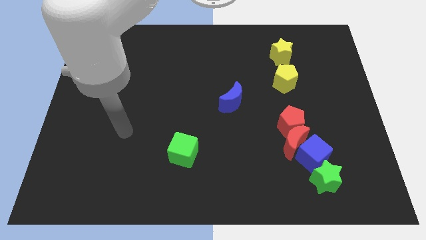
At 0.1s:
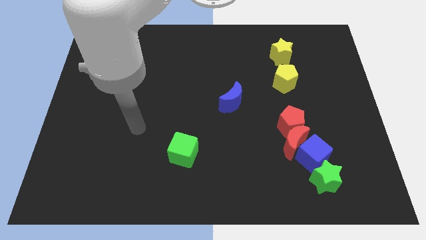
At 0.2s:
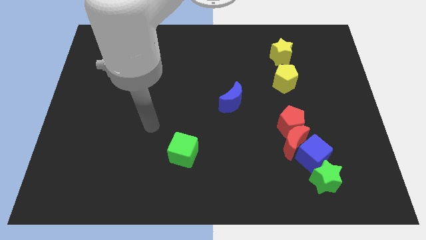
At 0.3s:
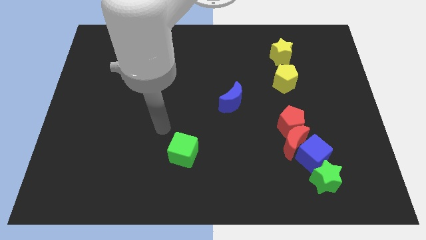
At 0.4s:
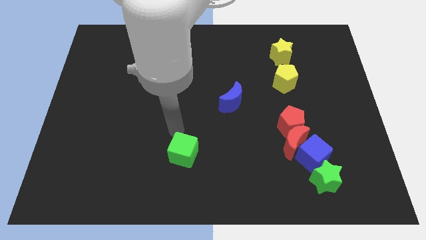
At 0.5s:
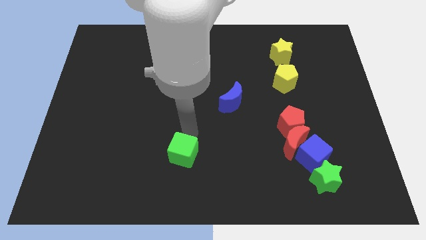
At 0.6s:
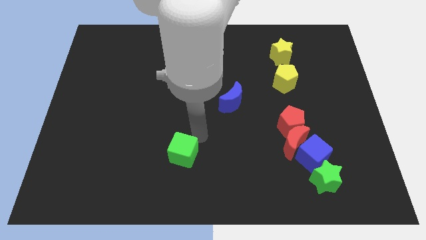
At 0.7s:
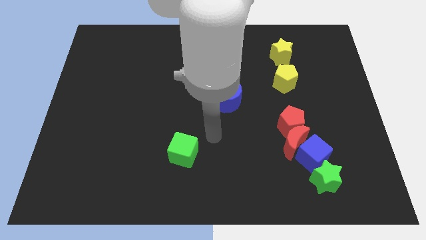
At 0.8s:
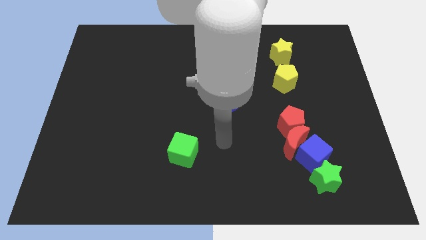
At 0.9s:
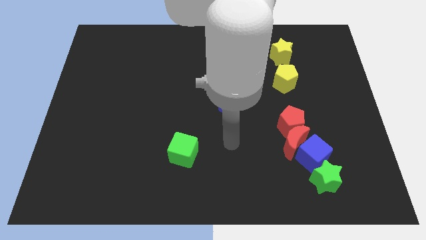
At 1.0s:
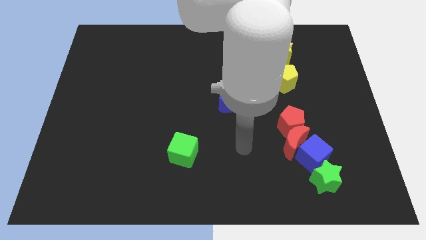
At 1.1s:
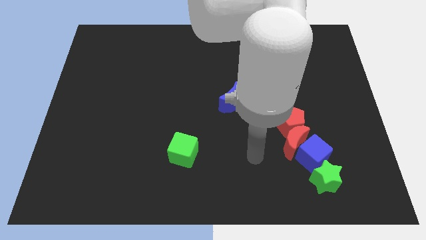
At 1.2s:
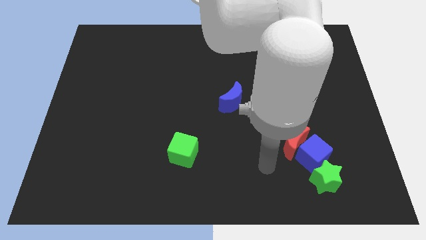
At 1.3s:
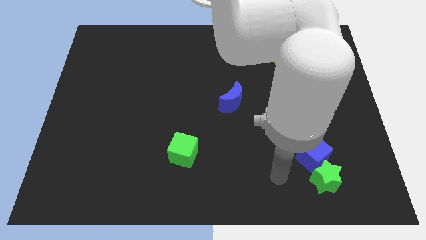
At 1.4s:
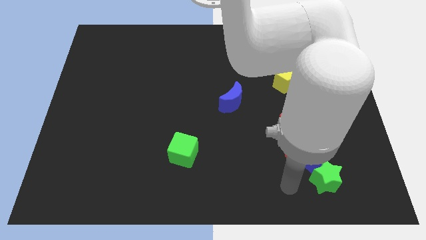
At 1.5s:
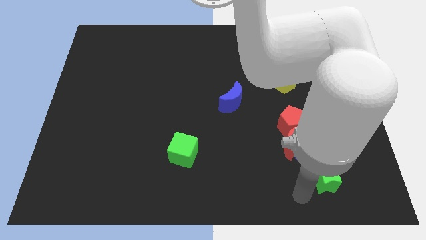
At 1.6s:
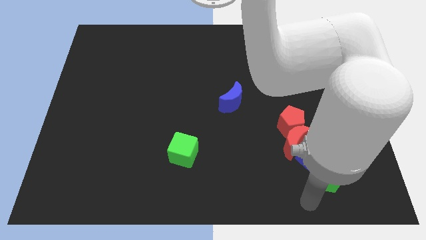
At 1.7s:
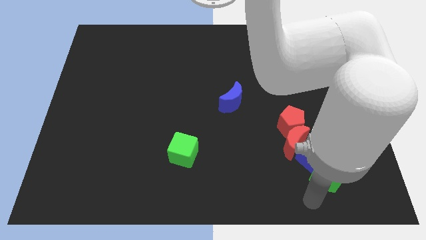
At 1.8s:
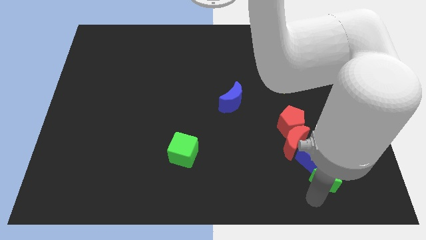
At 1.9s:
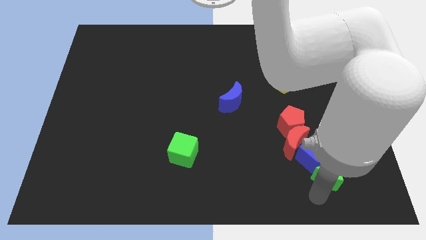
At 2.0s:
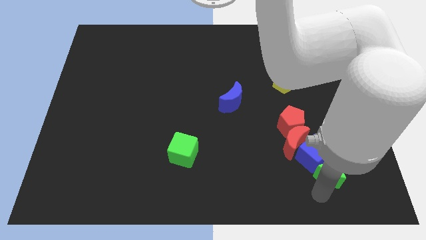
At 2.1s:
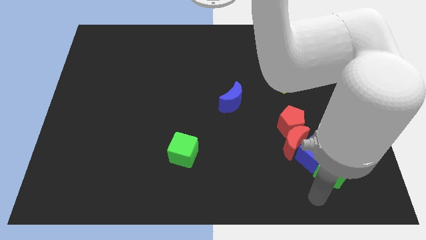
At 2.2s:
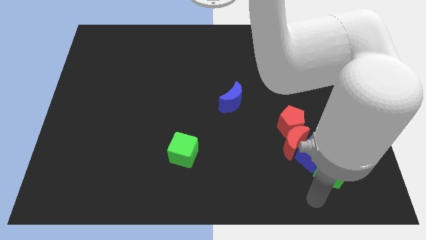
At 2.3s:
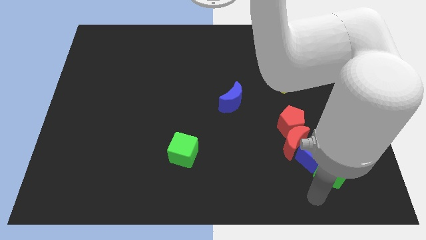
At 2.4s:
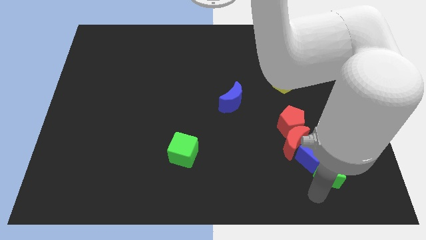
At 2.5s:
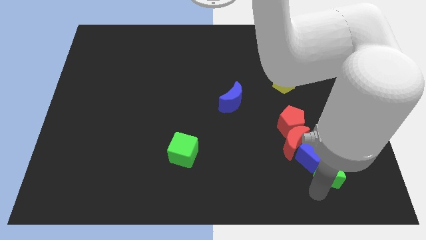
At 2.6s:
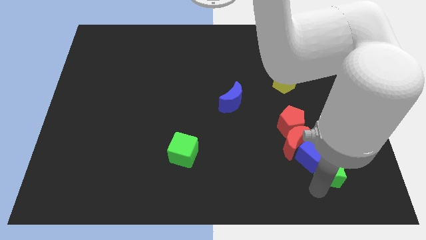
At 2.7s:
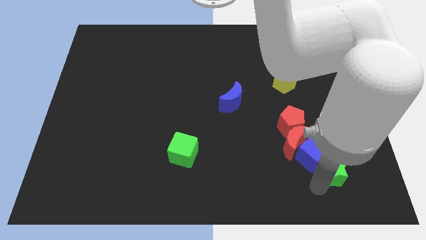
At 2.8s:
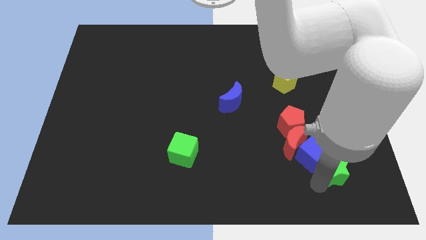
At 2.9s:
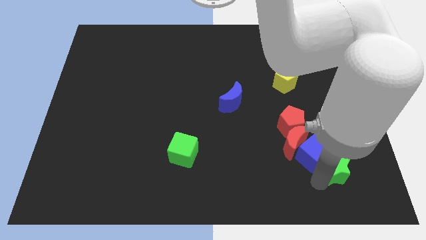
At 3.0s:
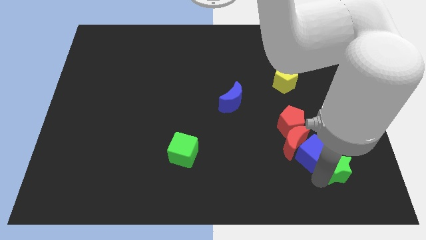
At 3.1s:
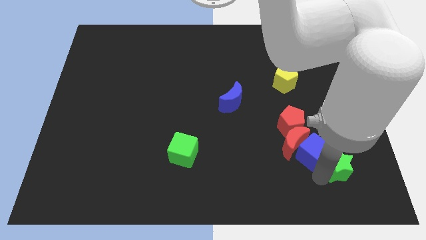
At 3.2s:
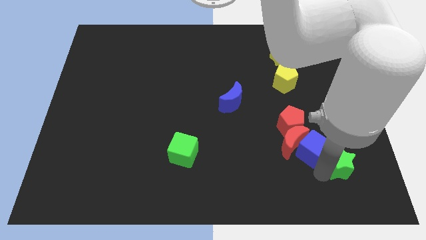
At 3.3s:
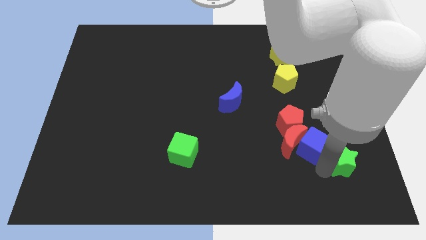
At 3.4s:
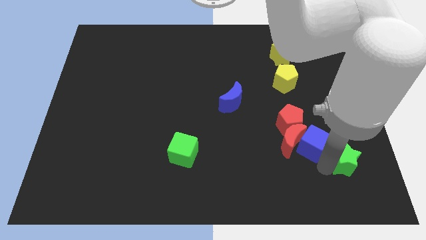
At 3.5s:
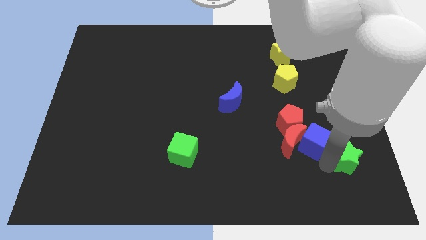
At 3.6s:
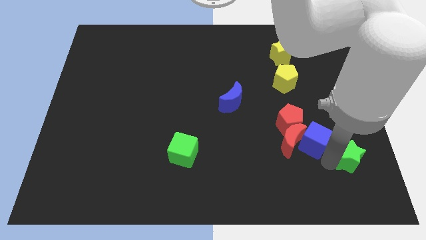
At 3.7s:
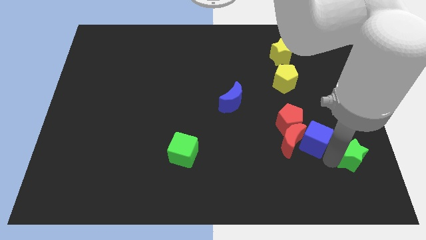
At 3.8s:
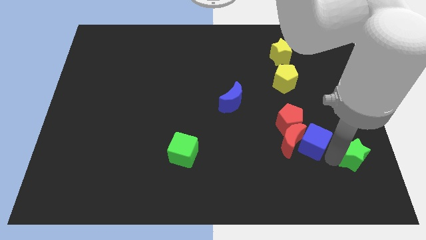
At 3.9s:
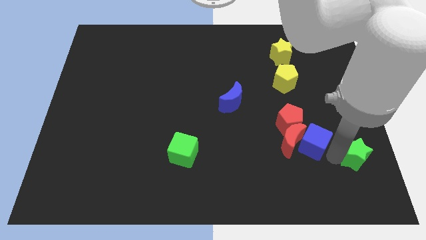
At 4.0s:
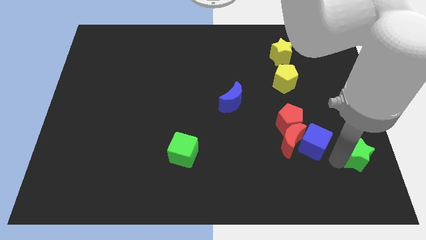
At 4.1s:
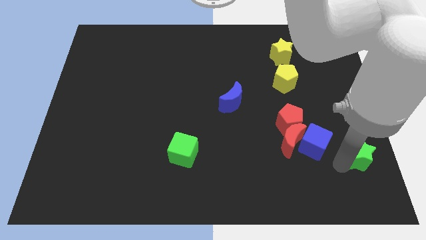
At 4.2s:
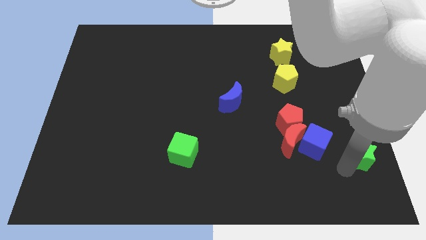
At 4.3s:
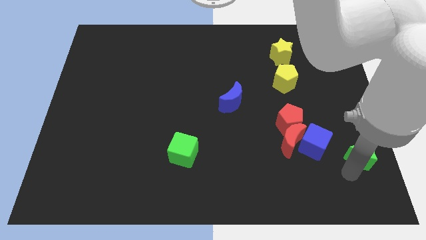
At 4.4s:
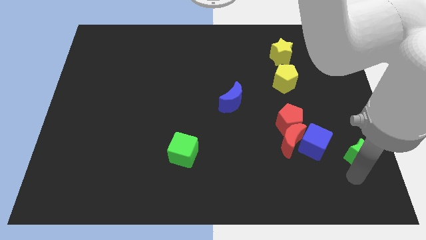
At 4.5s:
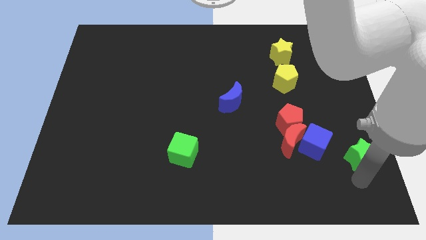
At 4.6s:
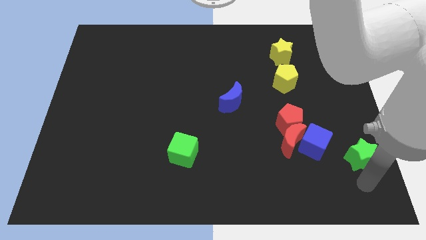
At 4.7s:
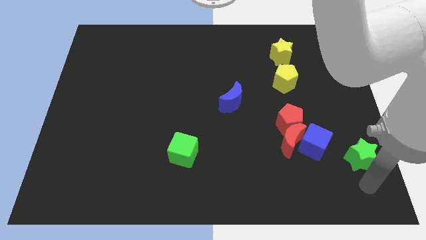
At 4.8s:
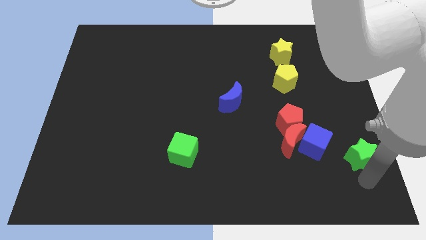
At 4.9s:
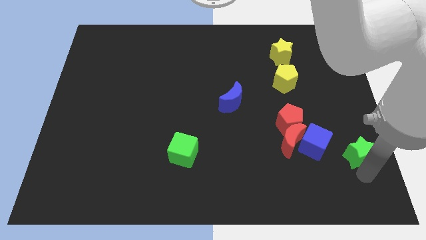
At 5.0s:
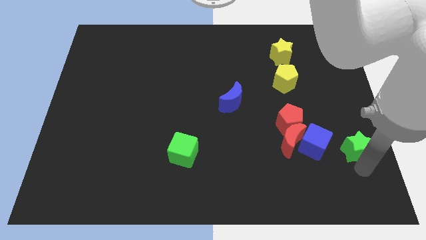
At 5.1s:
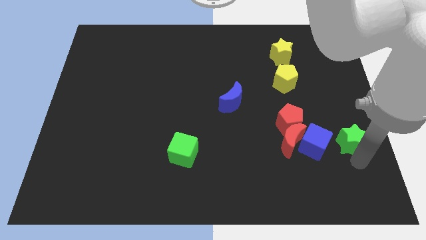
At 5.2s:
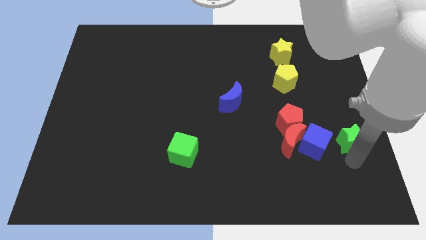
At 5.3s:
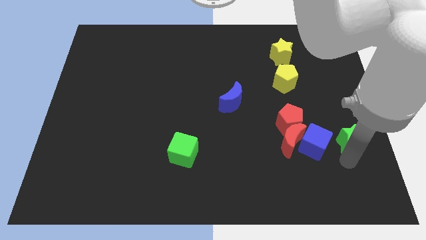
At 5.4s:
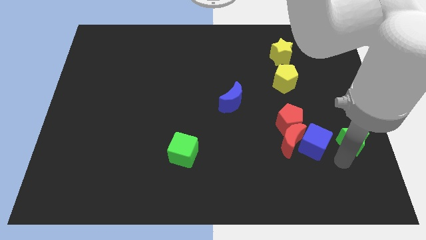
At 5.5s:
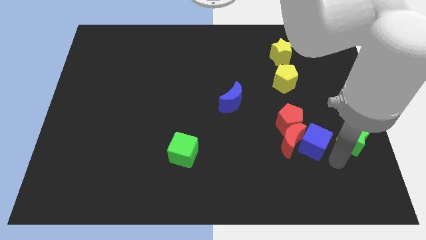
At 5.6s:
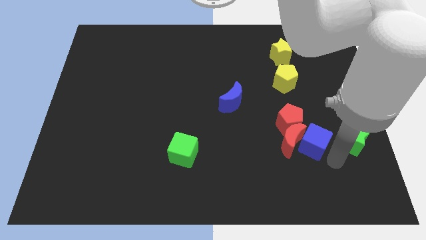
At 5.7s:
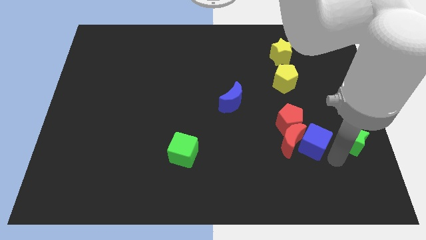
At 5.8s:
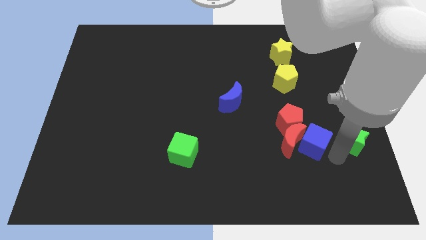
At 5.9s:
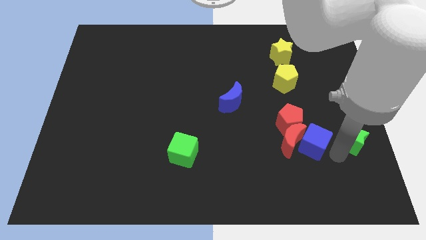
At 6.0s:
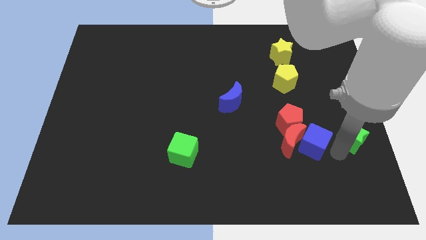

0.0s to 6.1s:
move the green star to the center right

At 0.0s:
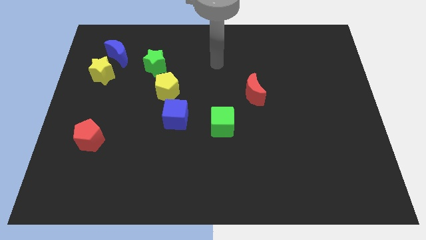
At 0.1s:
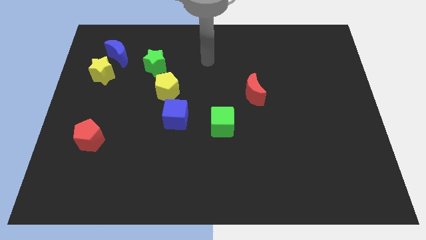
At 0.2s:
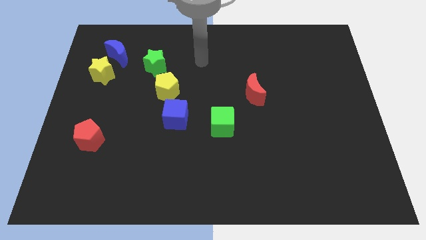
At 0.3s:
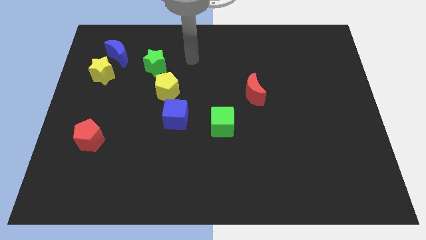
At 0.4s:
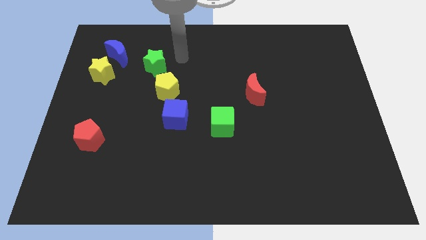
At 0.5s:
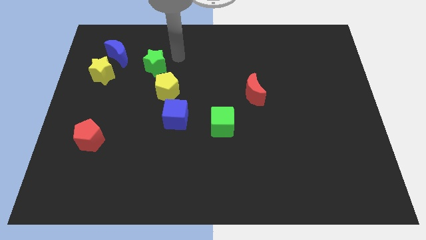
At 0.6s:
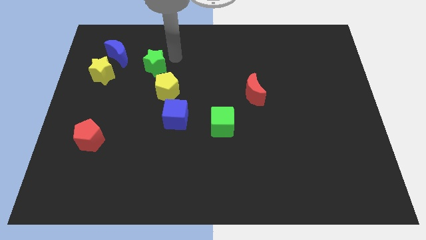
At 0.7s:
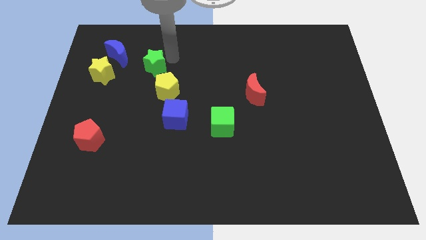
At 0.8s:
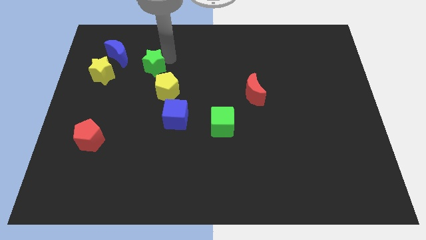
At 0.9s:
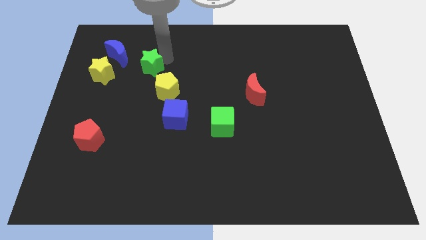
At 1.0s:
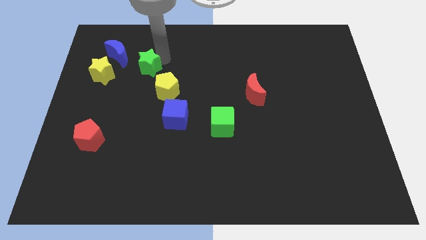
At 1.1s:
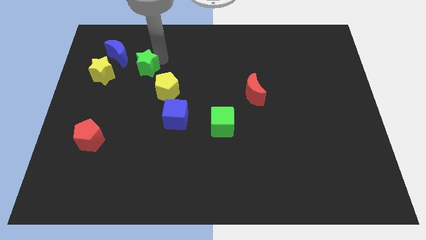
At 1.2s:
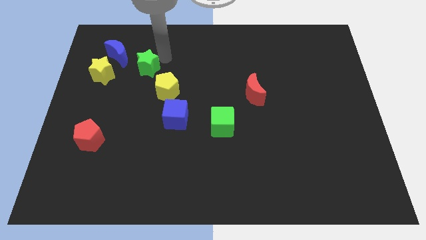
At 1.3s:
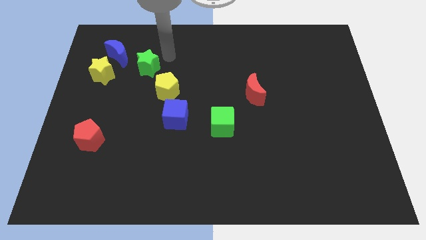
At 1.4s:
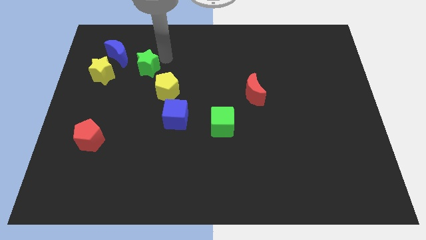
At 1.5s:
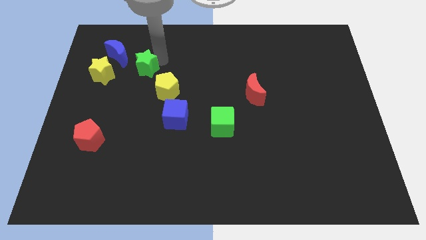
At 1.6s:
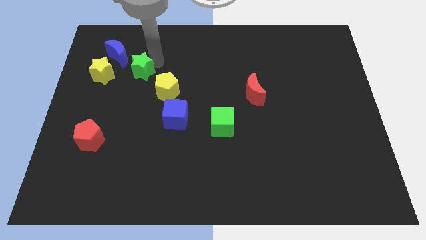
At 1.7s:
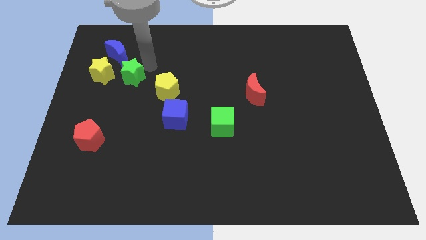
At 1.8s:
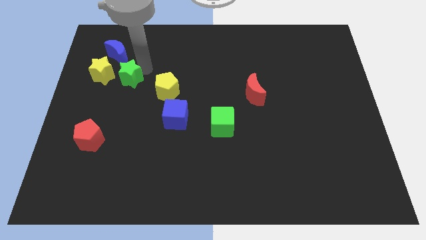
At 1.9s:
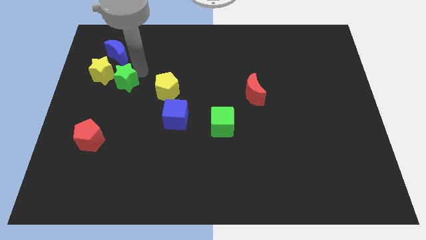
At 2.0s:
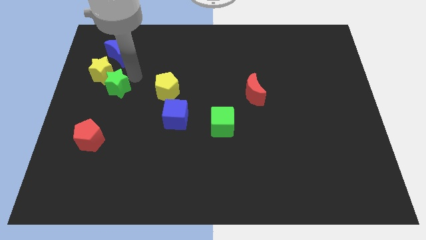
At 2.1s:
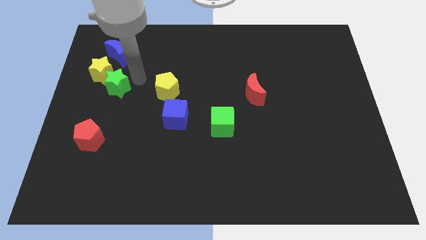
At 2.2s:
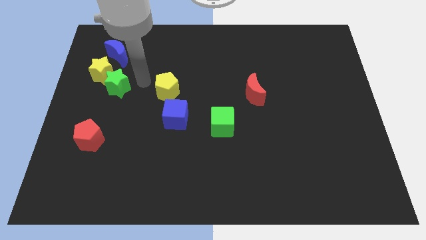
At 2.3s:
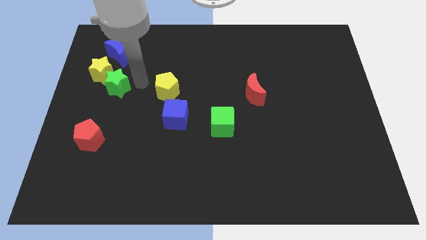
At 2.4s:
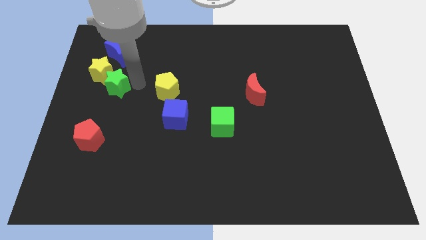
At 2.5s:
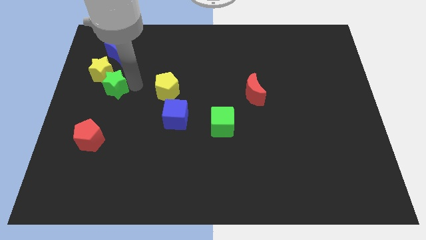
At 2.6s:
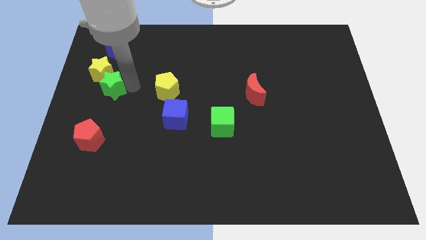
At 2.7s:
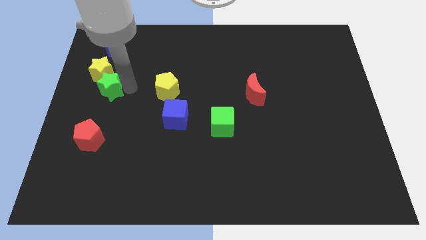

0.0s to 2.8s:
put the green star to the left side of the board
